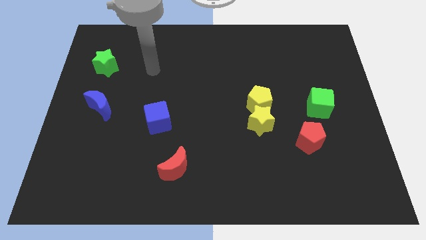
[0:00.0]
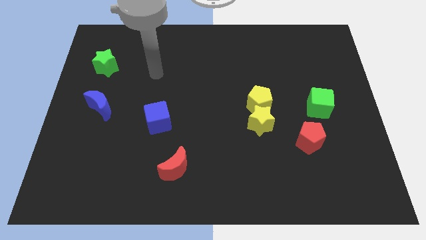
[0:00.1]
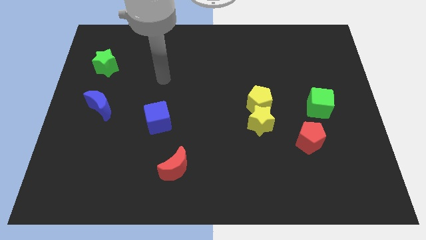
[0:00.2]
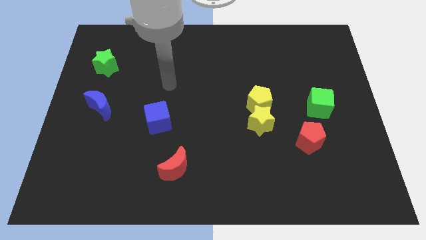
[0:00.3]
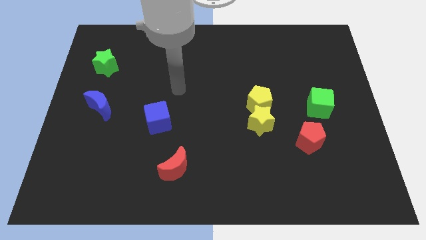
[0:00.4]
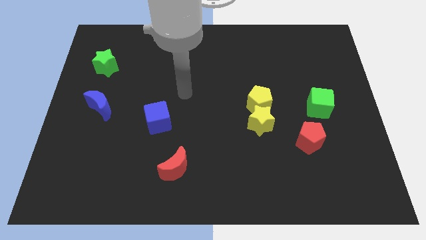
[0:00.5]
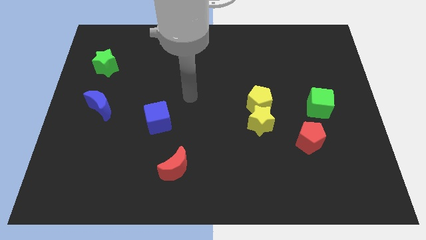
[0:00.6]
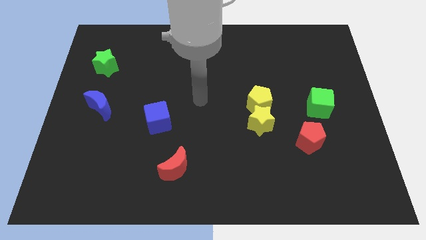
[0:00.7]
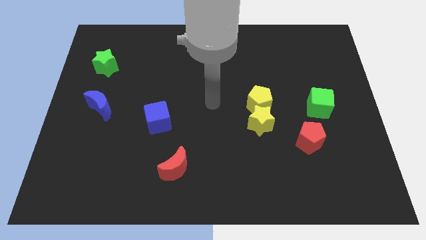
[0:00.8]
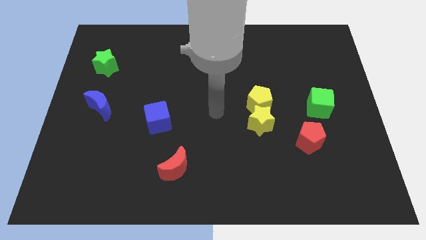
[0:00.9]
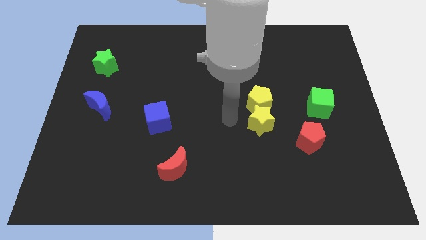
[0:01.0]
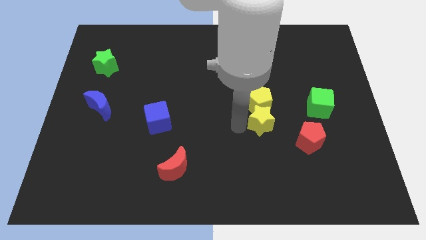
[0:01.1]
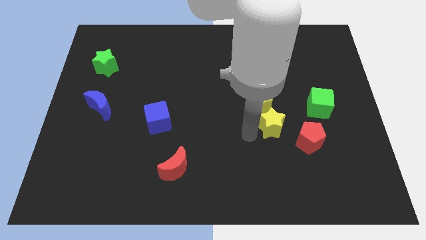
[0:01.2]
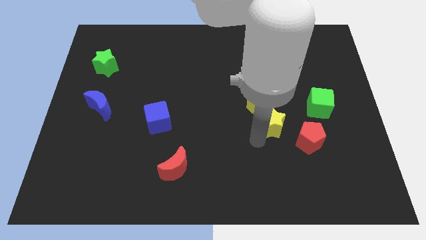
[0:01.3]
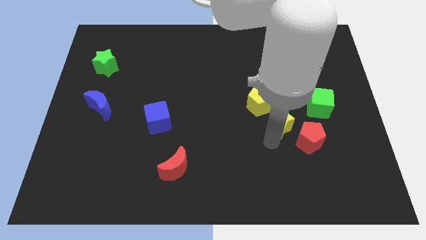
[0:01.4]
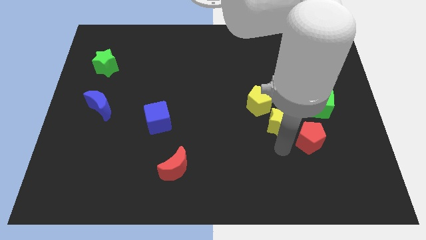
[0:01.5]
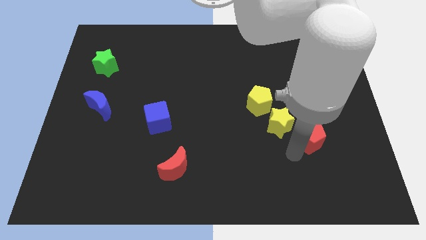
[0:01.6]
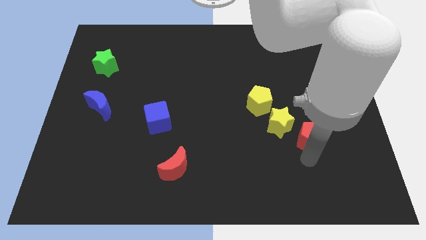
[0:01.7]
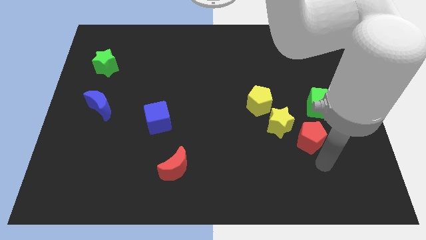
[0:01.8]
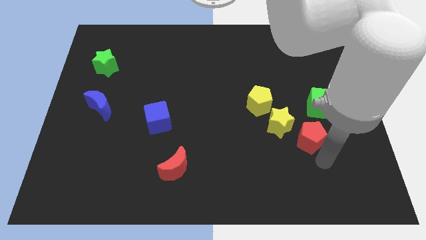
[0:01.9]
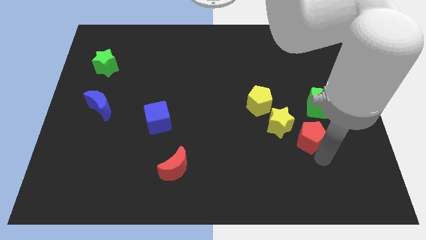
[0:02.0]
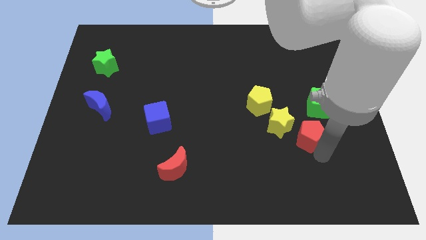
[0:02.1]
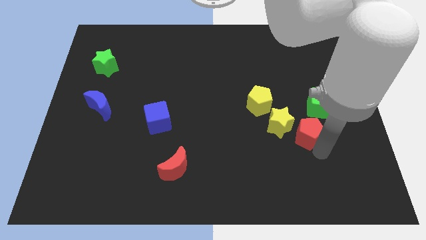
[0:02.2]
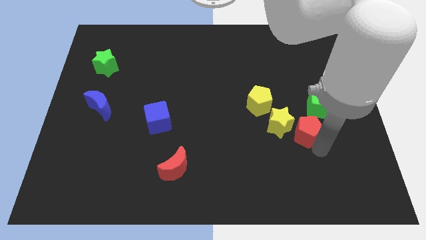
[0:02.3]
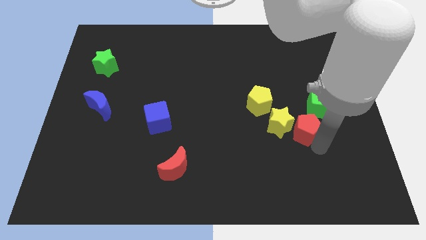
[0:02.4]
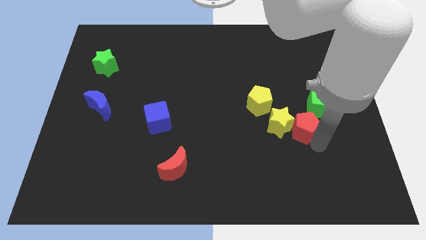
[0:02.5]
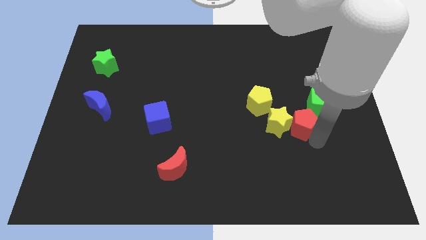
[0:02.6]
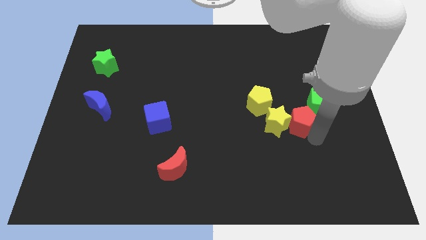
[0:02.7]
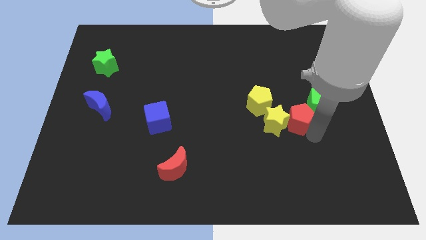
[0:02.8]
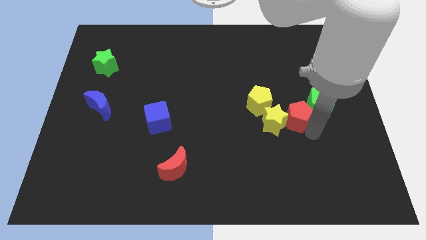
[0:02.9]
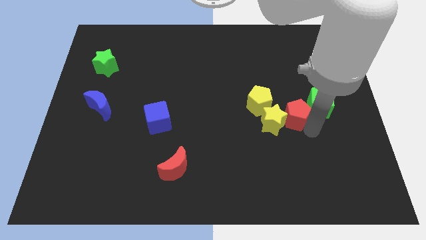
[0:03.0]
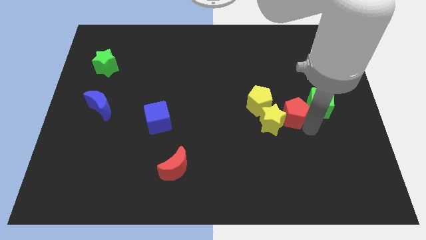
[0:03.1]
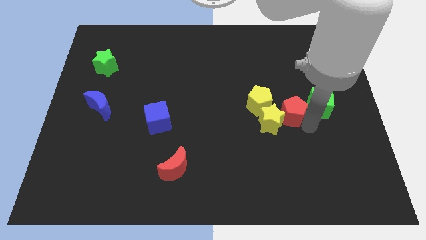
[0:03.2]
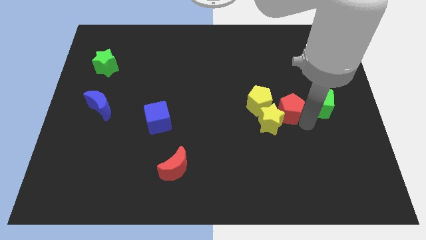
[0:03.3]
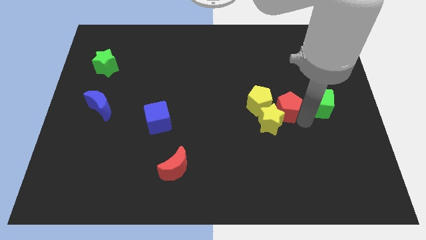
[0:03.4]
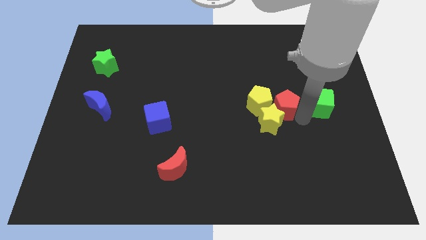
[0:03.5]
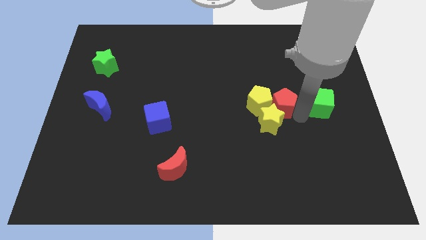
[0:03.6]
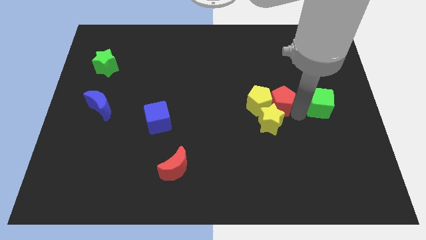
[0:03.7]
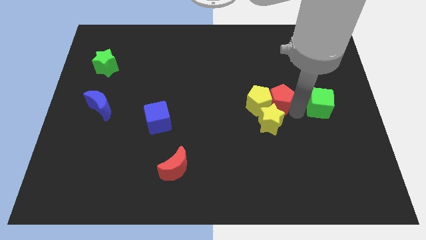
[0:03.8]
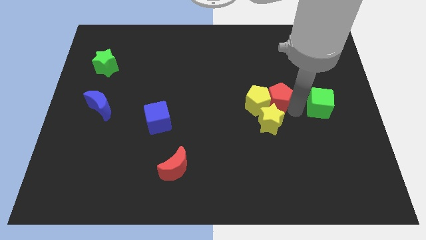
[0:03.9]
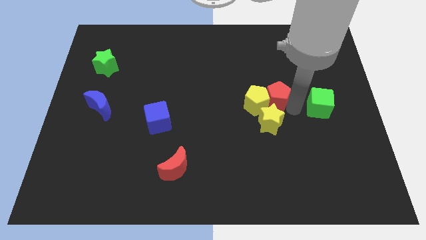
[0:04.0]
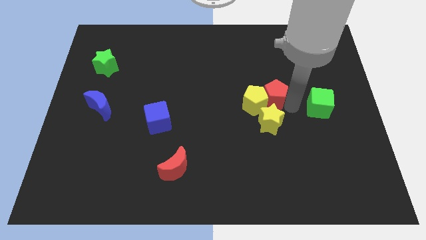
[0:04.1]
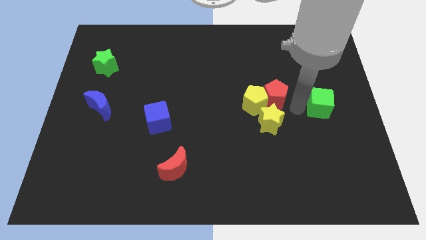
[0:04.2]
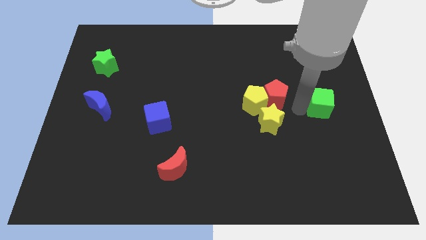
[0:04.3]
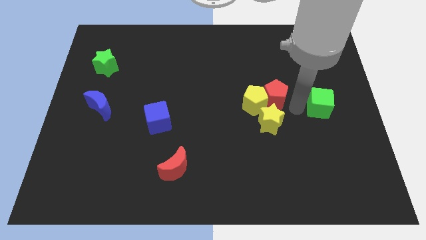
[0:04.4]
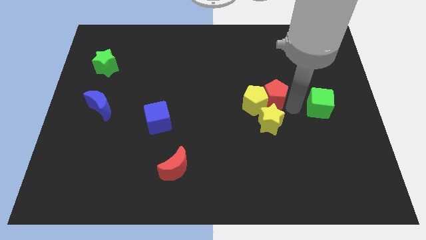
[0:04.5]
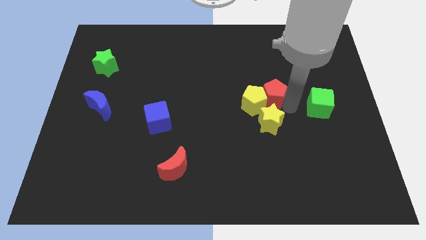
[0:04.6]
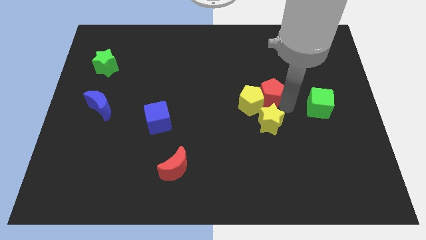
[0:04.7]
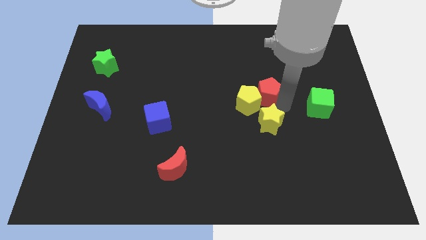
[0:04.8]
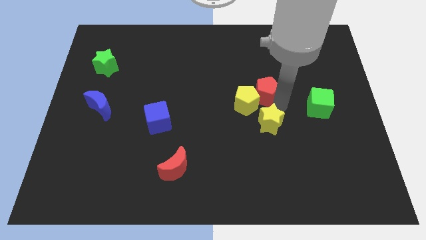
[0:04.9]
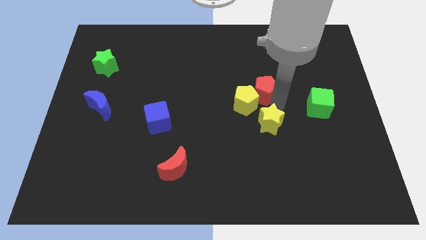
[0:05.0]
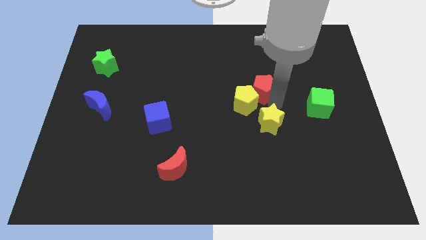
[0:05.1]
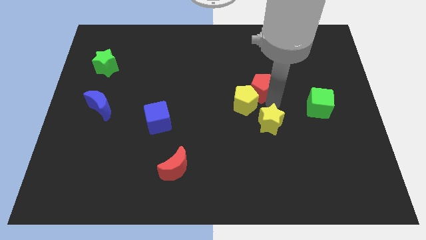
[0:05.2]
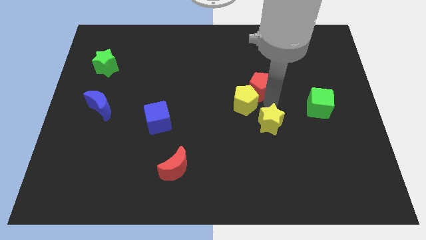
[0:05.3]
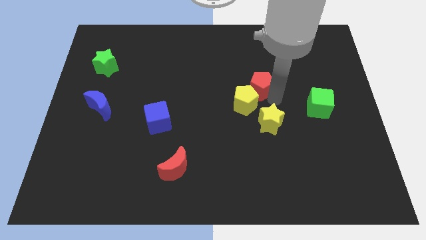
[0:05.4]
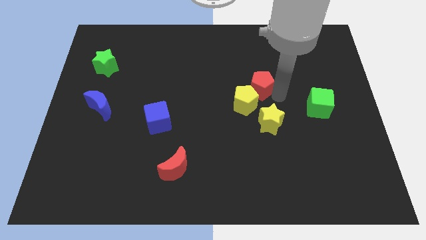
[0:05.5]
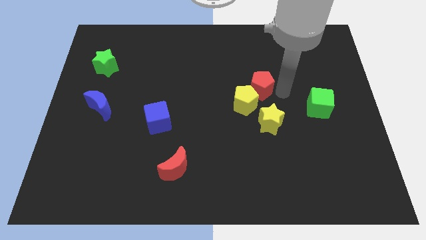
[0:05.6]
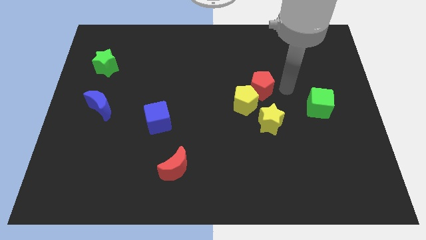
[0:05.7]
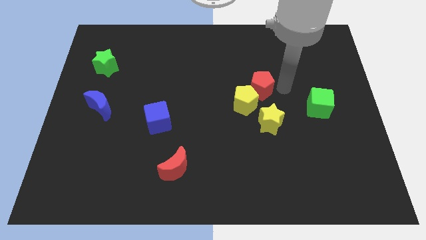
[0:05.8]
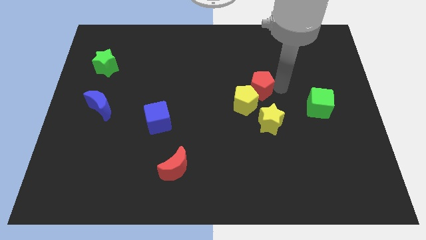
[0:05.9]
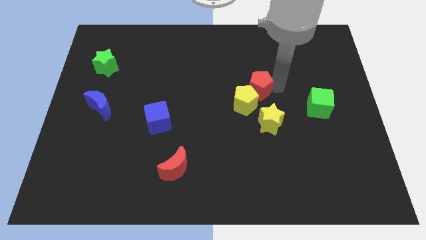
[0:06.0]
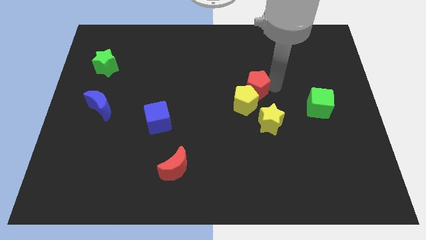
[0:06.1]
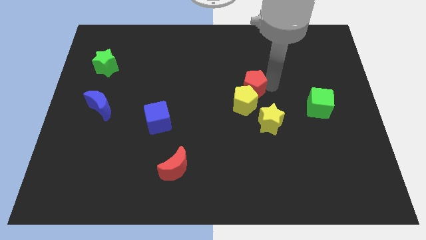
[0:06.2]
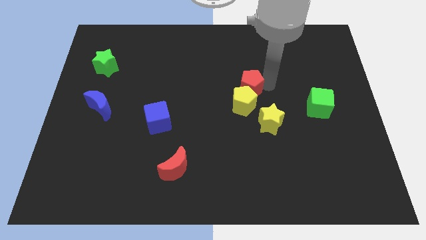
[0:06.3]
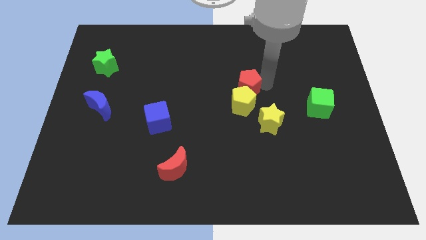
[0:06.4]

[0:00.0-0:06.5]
slide the red pentagon diagonally upwards and to the left

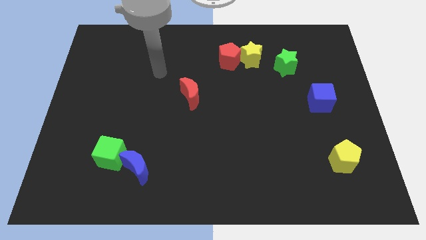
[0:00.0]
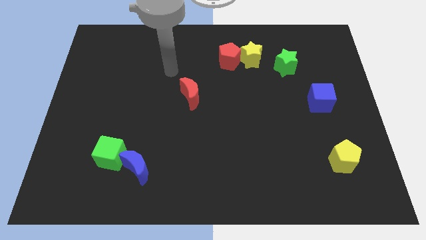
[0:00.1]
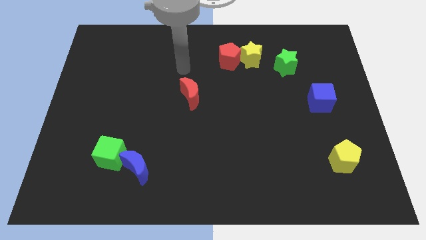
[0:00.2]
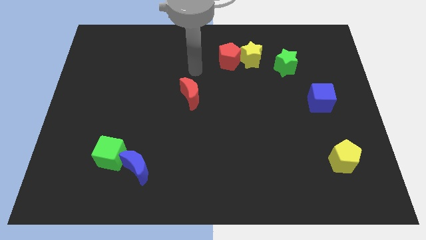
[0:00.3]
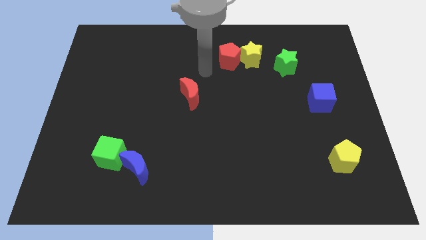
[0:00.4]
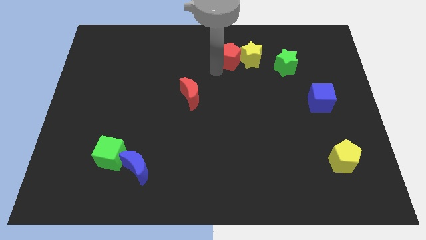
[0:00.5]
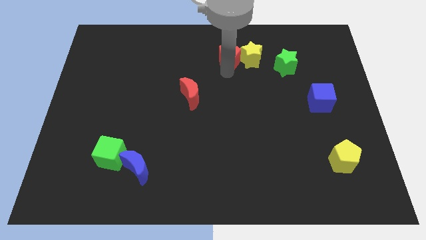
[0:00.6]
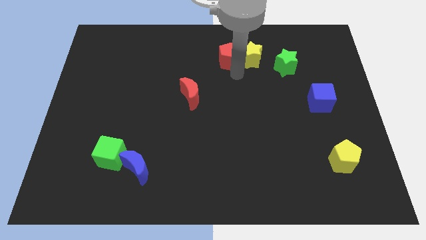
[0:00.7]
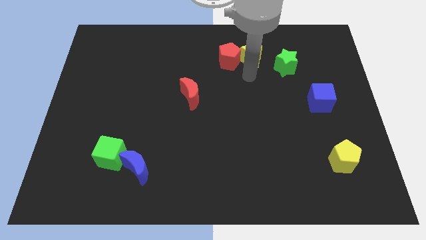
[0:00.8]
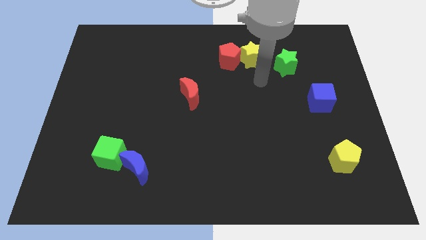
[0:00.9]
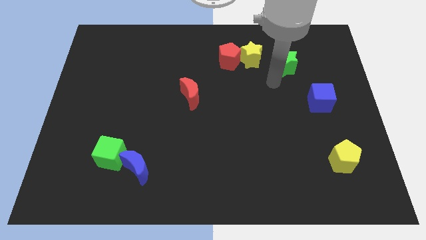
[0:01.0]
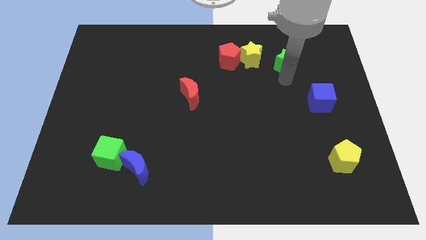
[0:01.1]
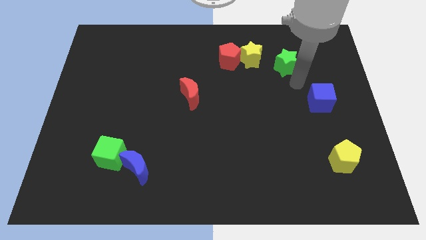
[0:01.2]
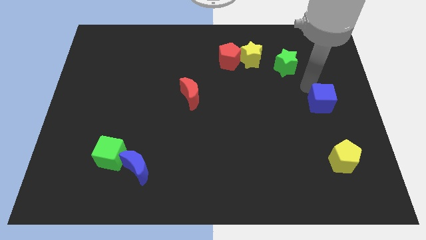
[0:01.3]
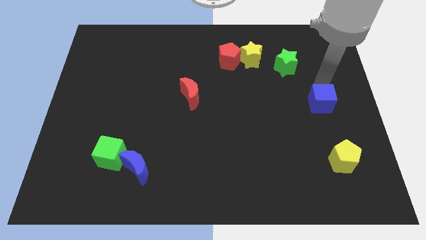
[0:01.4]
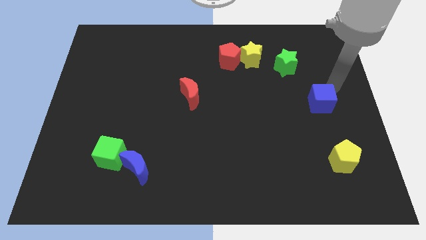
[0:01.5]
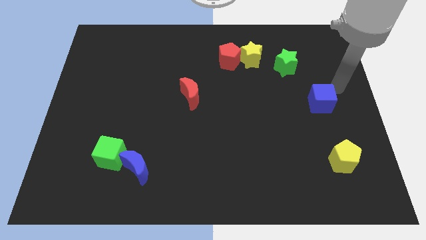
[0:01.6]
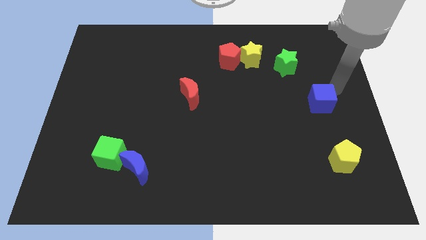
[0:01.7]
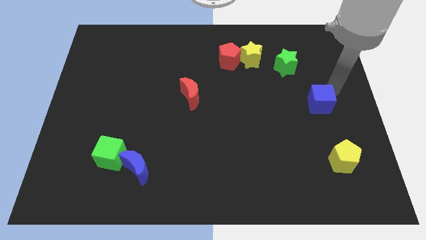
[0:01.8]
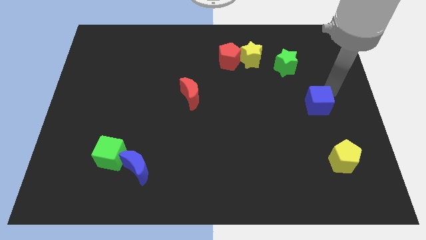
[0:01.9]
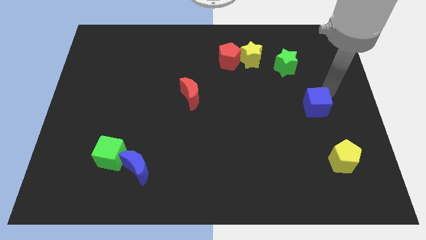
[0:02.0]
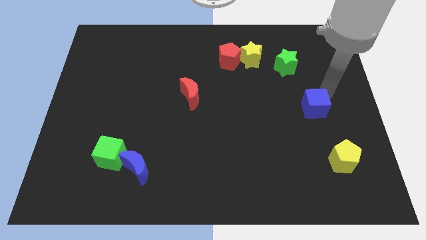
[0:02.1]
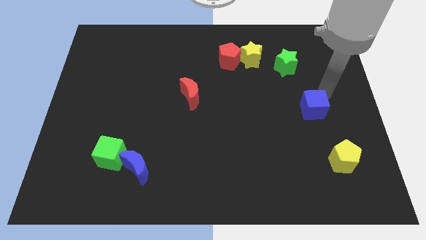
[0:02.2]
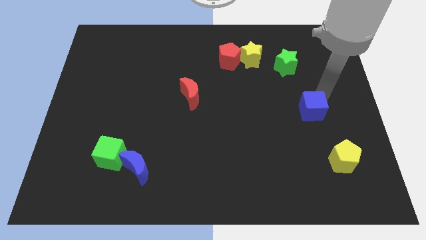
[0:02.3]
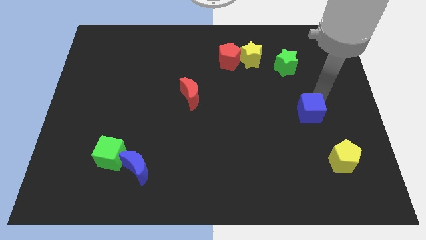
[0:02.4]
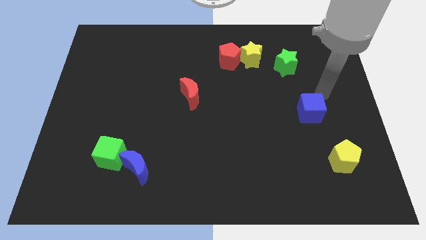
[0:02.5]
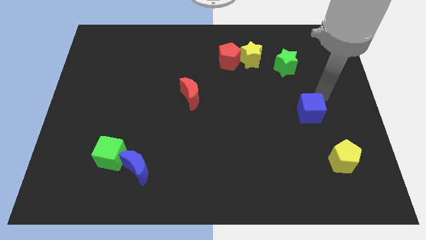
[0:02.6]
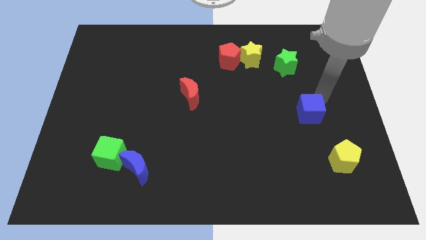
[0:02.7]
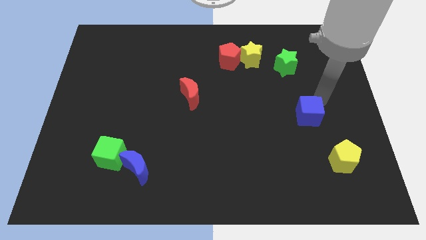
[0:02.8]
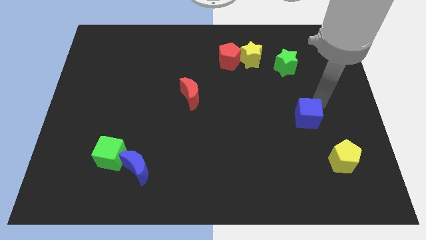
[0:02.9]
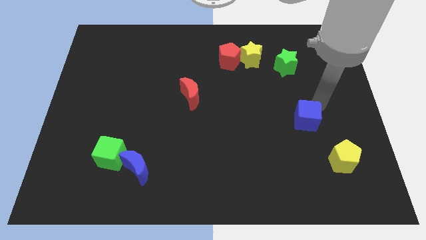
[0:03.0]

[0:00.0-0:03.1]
slightly slide the blue cube down and then left
